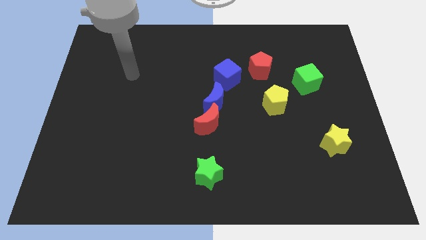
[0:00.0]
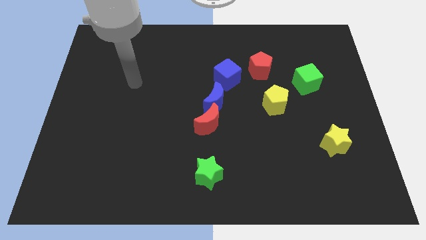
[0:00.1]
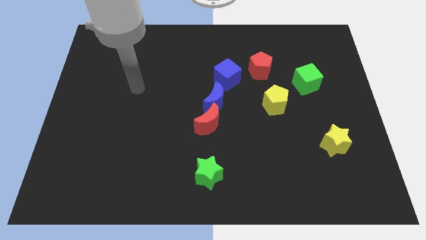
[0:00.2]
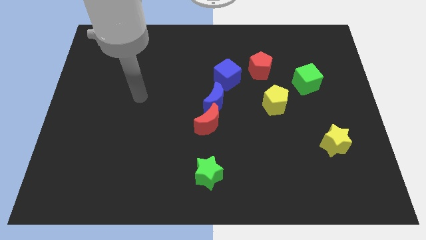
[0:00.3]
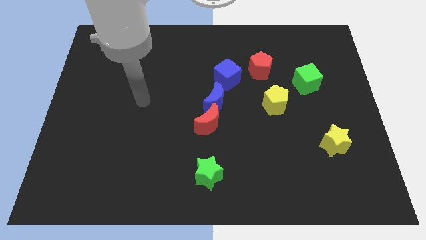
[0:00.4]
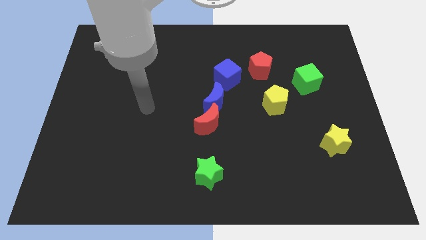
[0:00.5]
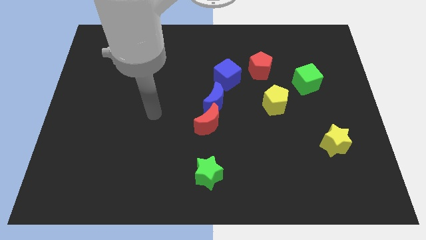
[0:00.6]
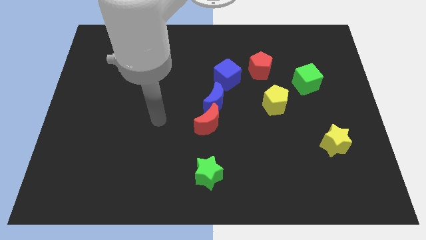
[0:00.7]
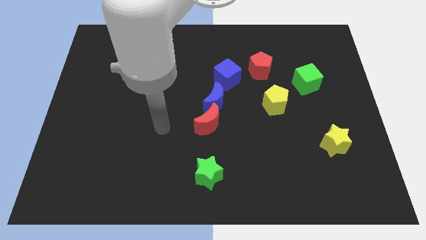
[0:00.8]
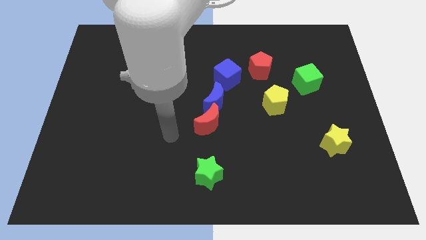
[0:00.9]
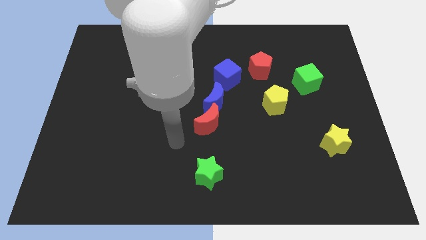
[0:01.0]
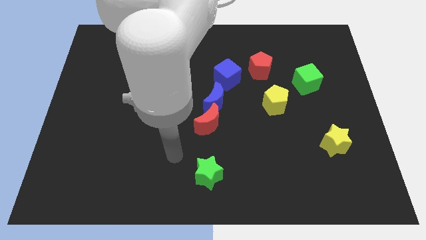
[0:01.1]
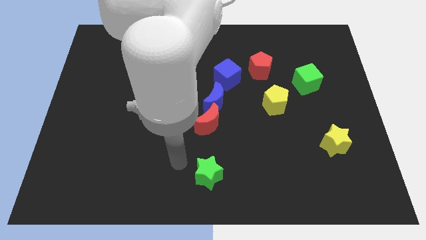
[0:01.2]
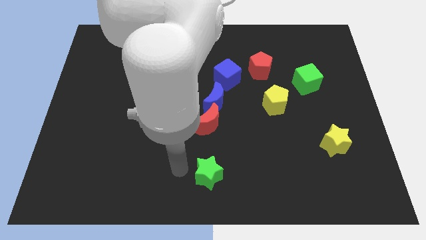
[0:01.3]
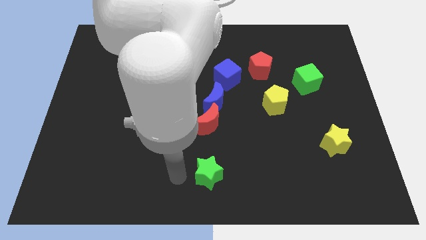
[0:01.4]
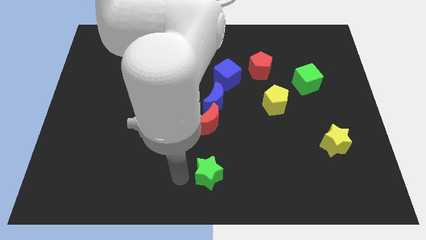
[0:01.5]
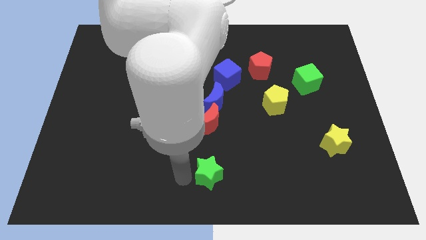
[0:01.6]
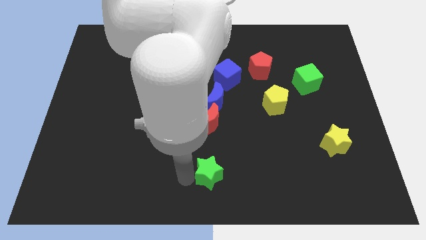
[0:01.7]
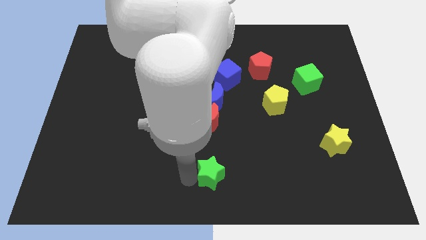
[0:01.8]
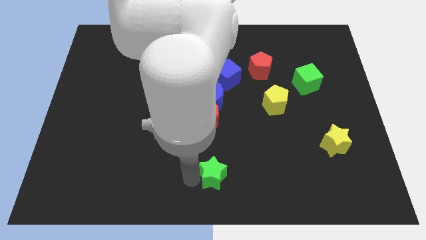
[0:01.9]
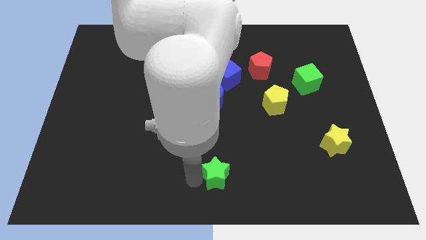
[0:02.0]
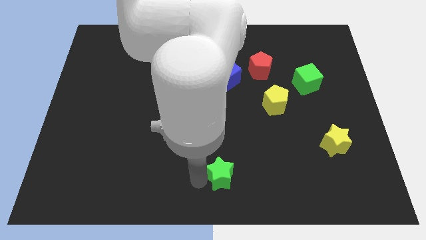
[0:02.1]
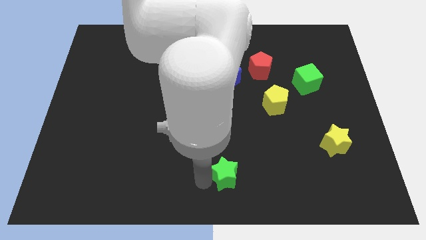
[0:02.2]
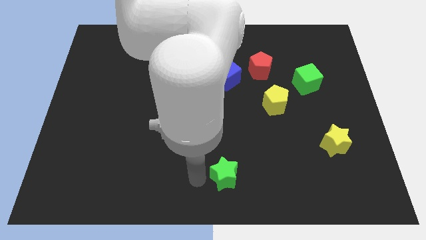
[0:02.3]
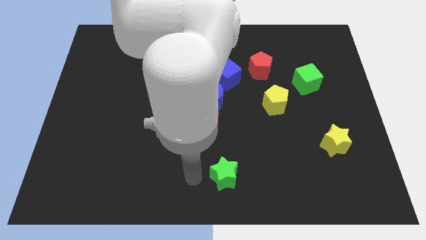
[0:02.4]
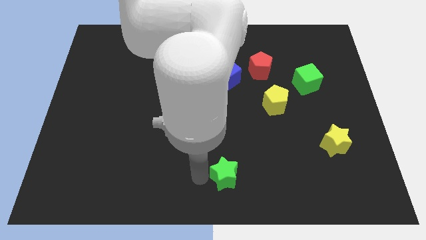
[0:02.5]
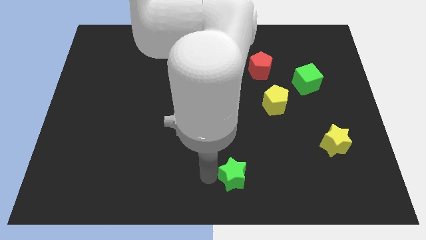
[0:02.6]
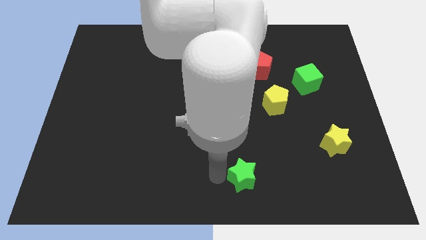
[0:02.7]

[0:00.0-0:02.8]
move the green star to the right slightly

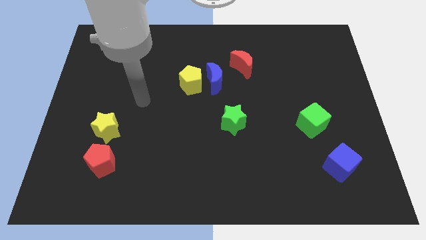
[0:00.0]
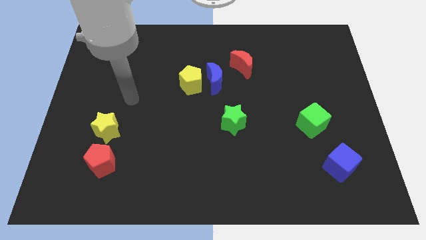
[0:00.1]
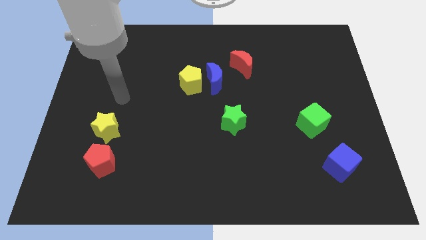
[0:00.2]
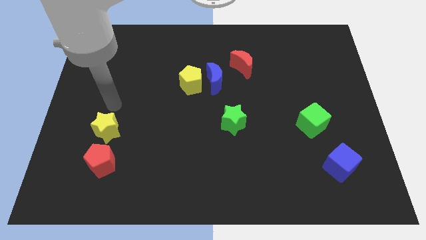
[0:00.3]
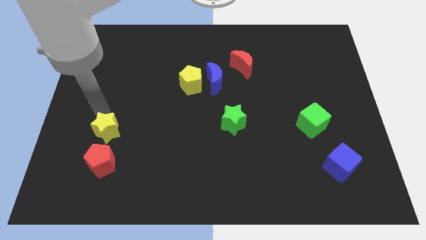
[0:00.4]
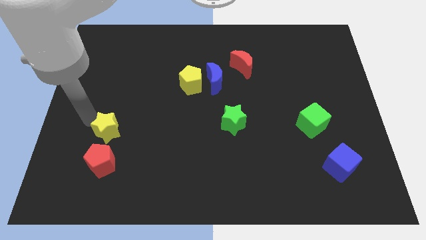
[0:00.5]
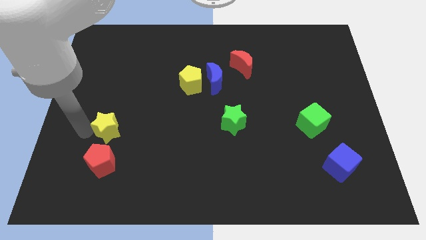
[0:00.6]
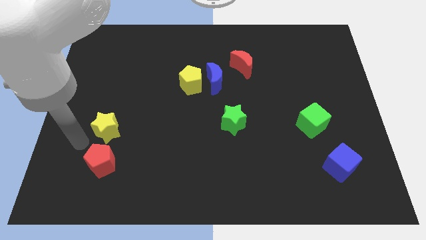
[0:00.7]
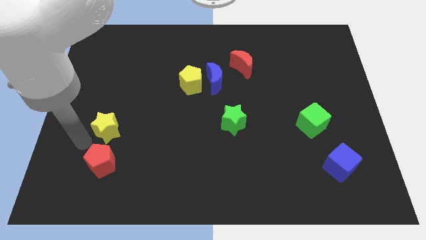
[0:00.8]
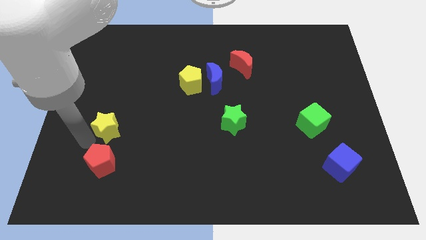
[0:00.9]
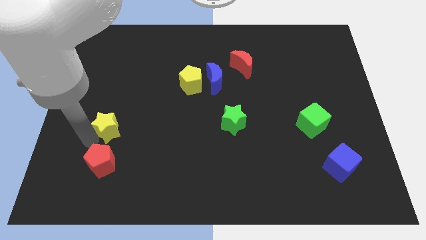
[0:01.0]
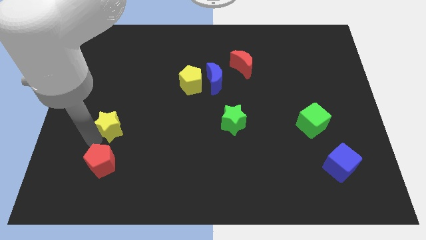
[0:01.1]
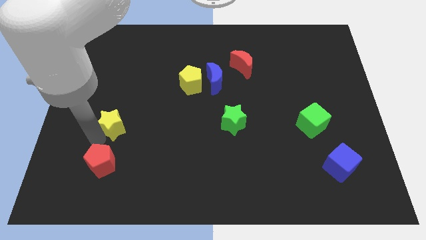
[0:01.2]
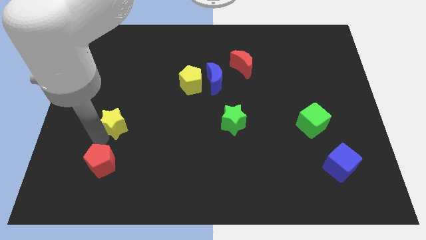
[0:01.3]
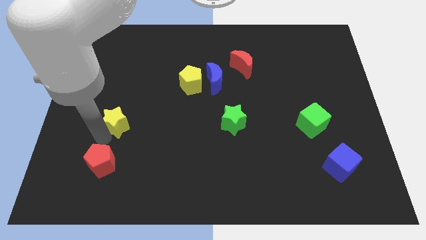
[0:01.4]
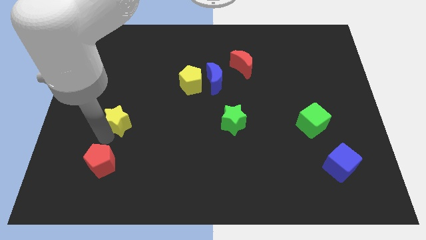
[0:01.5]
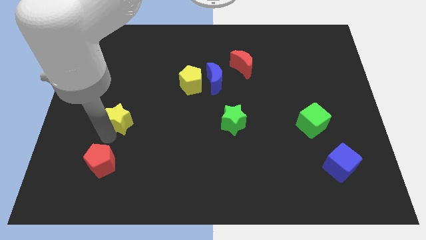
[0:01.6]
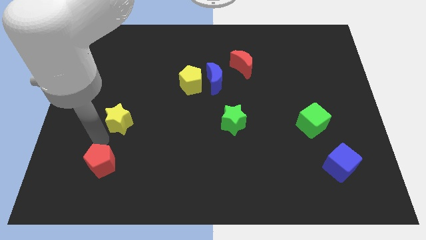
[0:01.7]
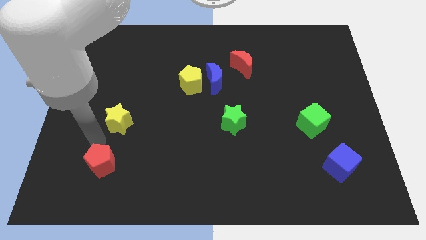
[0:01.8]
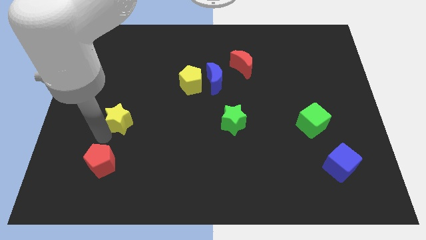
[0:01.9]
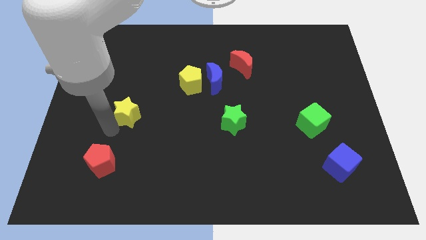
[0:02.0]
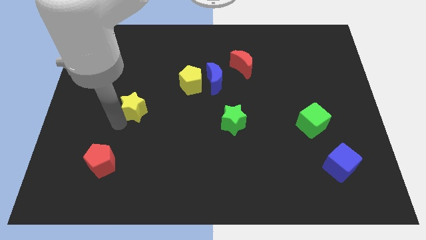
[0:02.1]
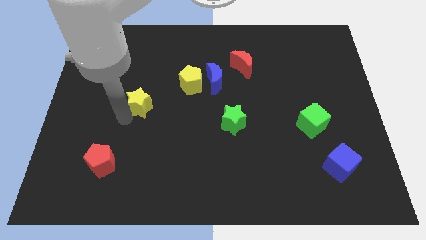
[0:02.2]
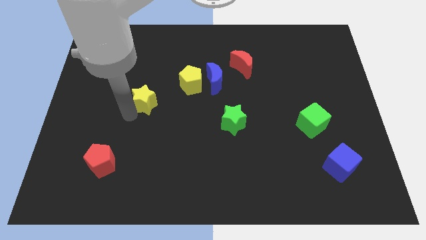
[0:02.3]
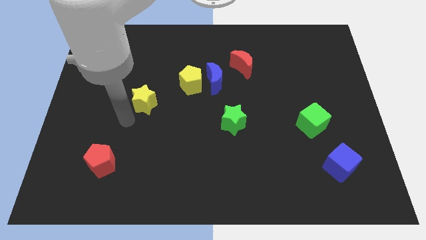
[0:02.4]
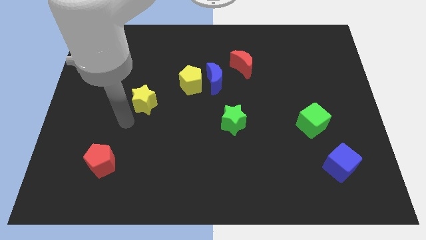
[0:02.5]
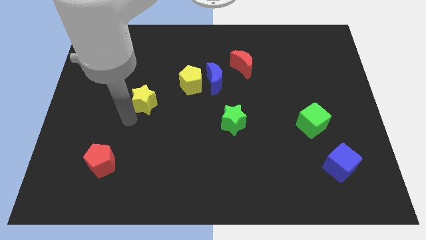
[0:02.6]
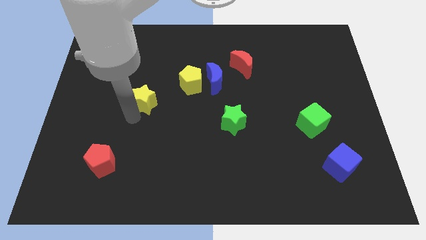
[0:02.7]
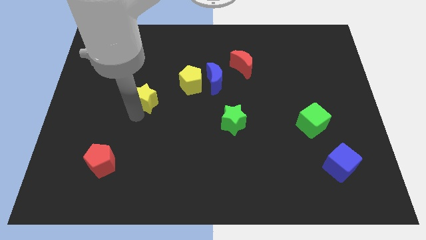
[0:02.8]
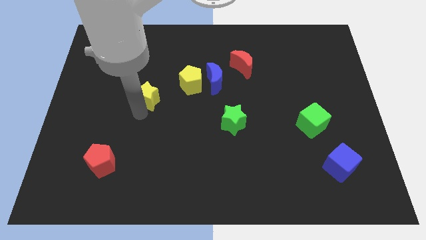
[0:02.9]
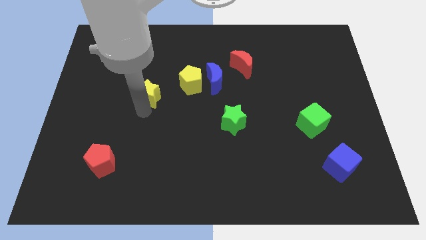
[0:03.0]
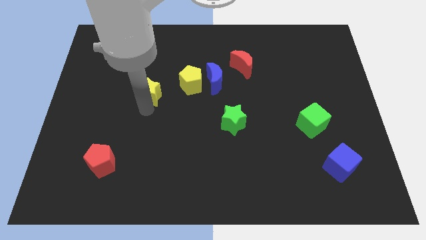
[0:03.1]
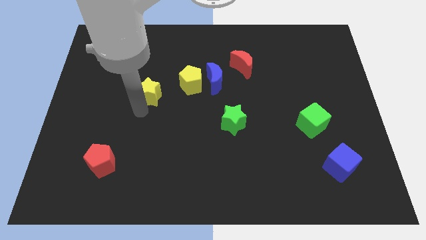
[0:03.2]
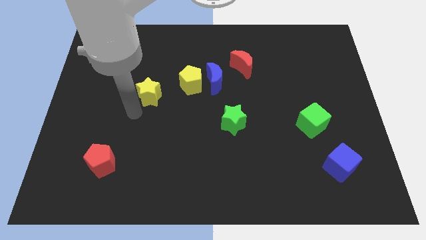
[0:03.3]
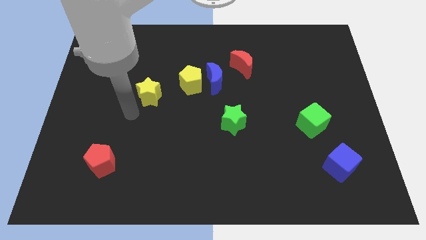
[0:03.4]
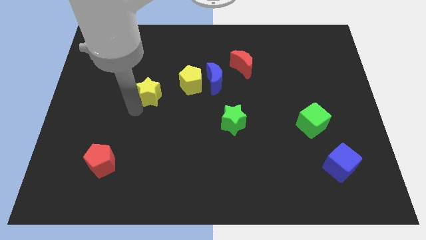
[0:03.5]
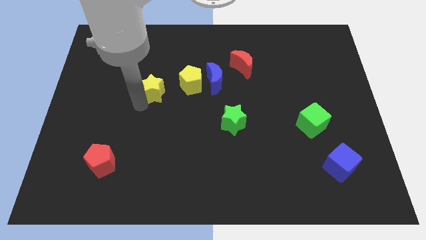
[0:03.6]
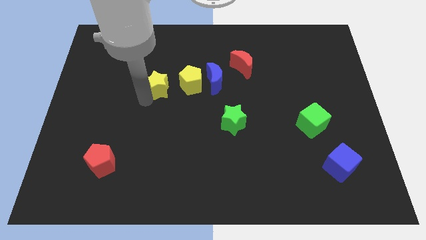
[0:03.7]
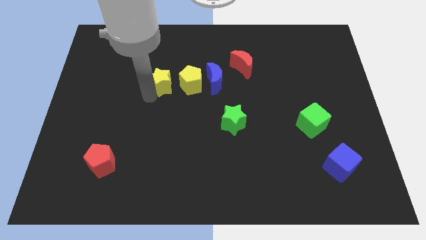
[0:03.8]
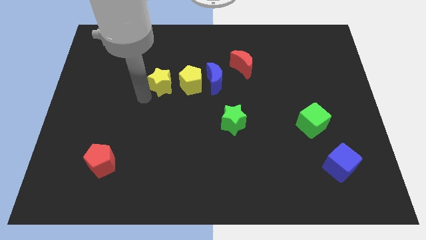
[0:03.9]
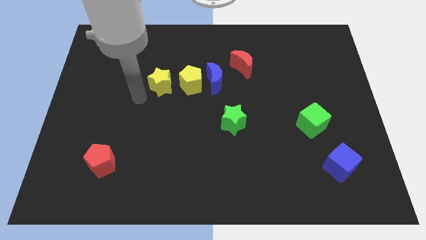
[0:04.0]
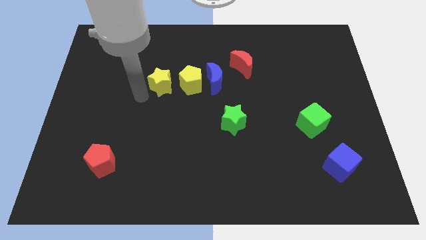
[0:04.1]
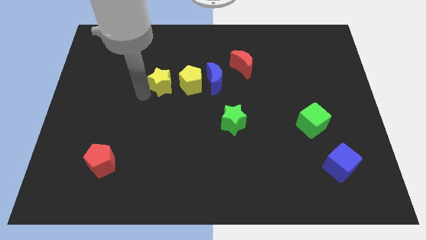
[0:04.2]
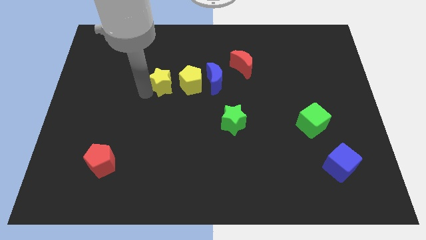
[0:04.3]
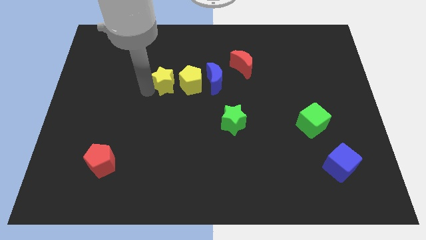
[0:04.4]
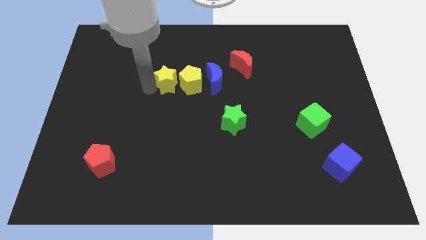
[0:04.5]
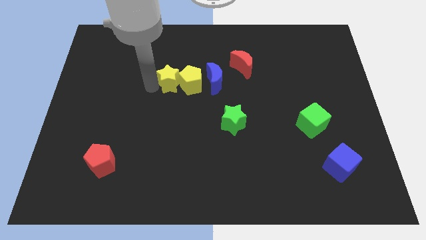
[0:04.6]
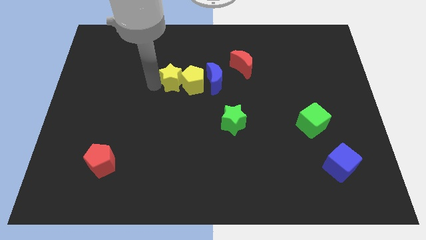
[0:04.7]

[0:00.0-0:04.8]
slide the yellow star diagonally up and to the right

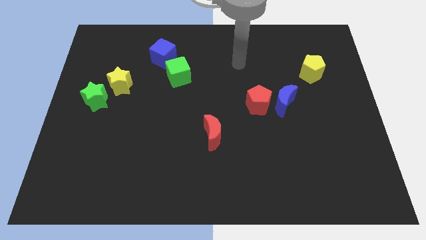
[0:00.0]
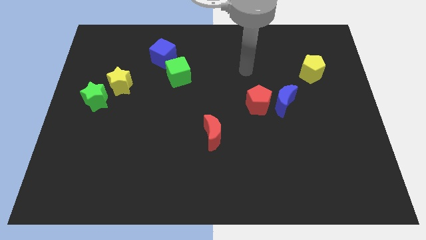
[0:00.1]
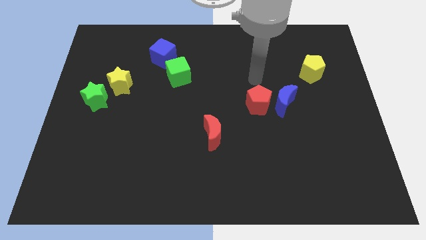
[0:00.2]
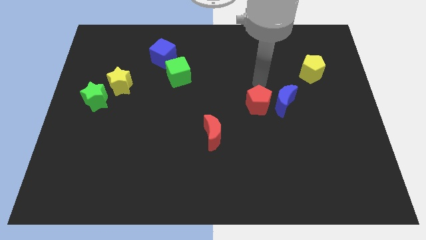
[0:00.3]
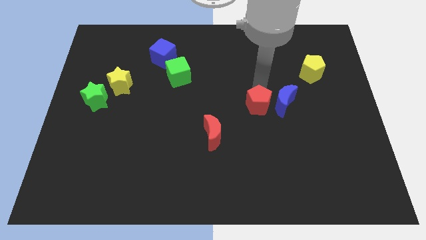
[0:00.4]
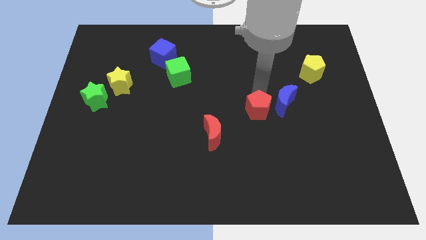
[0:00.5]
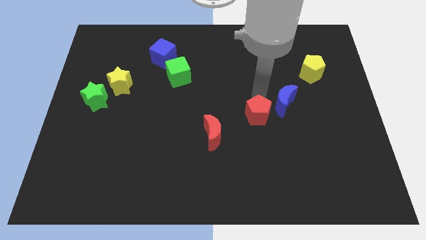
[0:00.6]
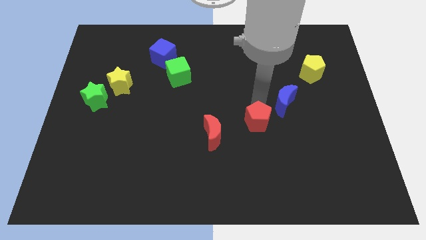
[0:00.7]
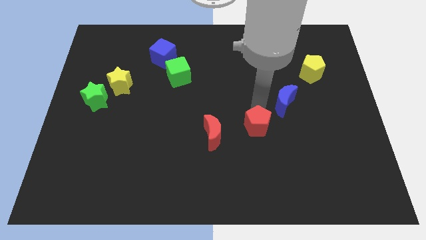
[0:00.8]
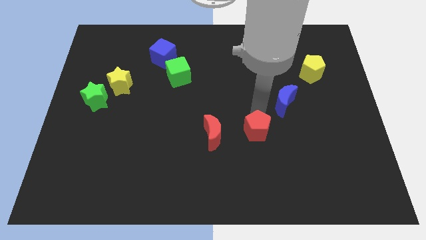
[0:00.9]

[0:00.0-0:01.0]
slide the red pentagon somewhat downwards
